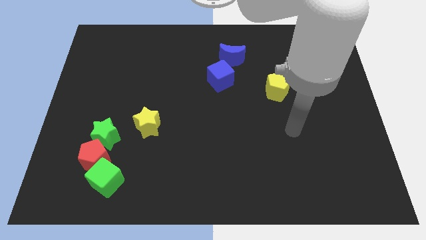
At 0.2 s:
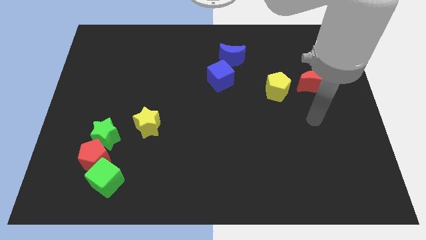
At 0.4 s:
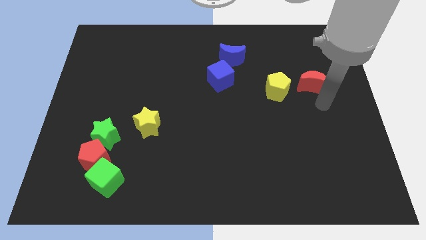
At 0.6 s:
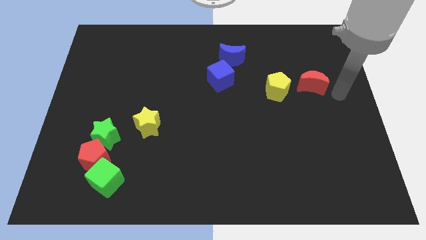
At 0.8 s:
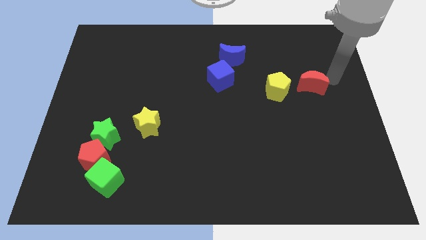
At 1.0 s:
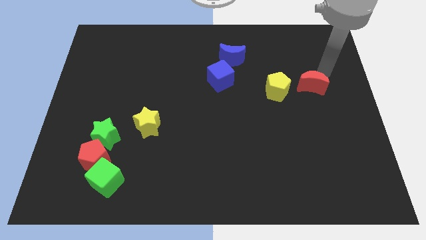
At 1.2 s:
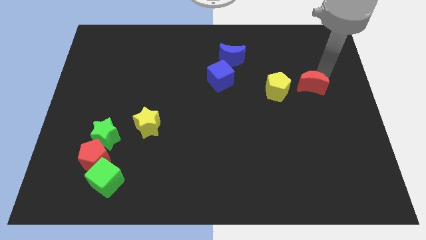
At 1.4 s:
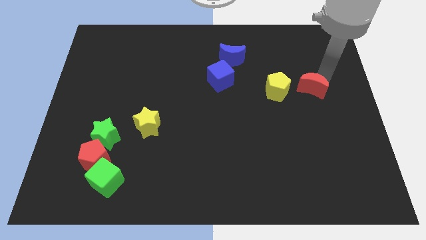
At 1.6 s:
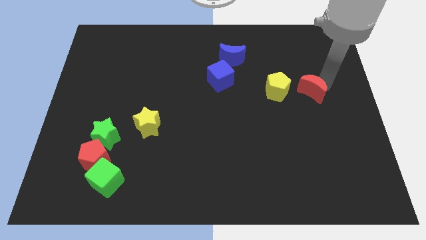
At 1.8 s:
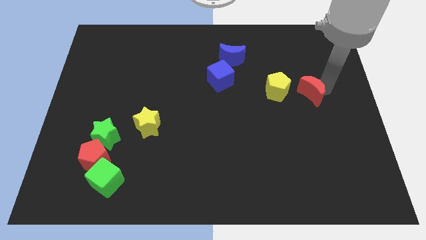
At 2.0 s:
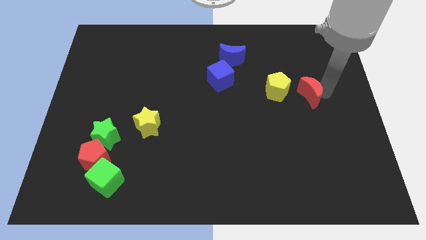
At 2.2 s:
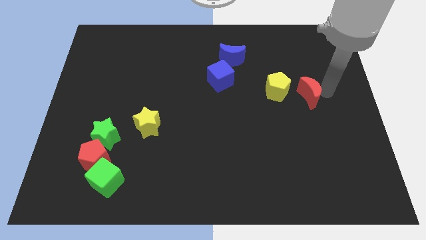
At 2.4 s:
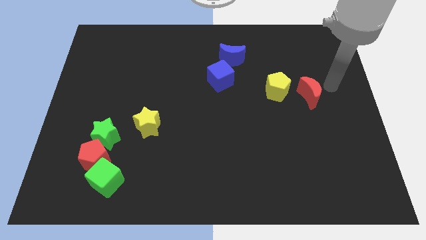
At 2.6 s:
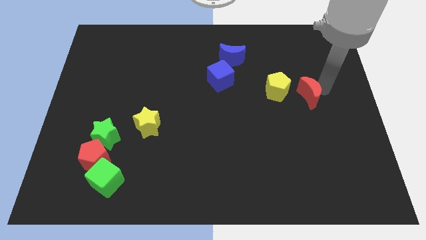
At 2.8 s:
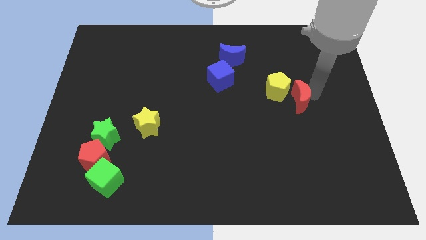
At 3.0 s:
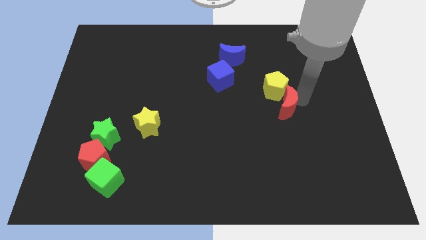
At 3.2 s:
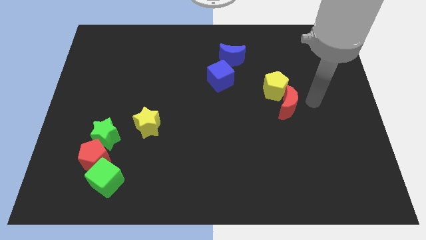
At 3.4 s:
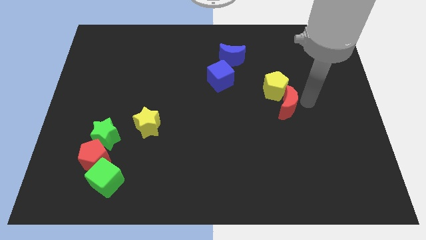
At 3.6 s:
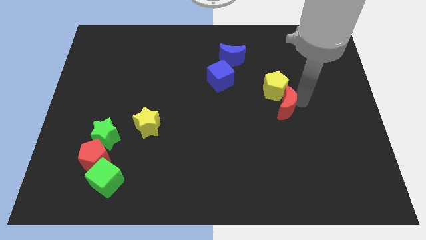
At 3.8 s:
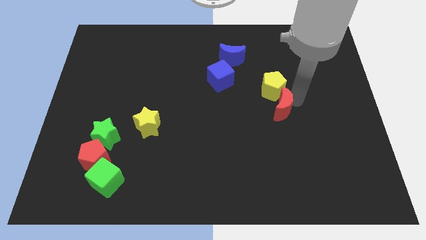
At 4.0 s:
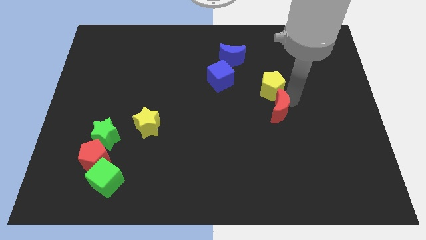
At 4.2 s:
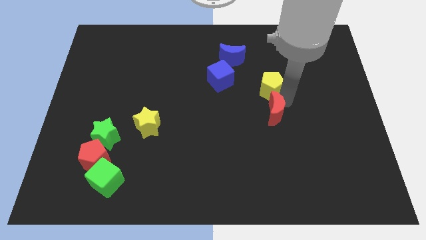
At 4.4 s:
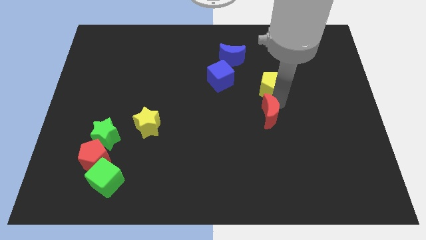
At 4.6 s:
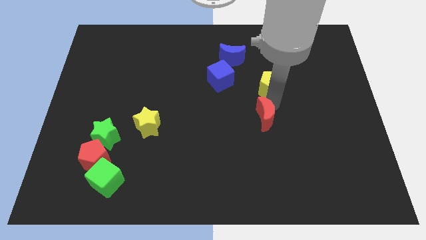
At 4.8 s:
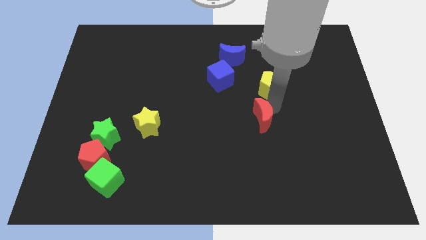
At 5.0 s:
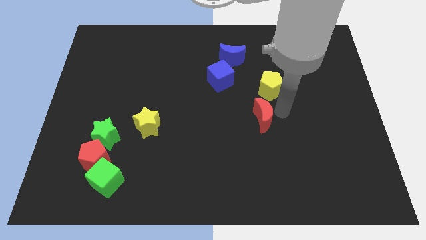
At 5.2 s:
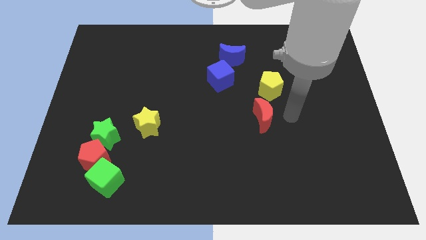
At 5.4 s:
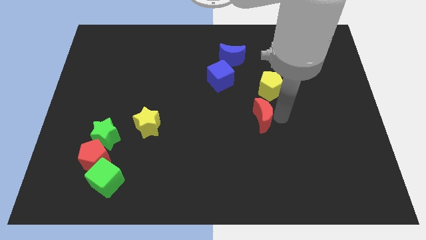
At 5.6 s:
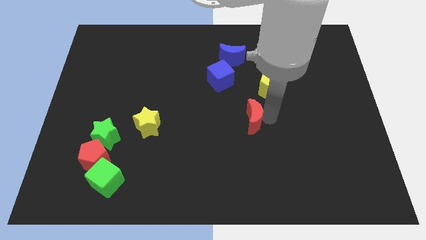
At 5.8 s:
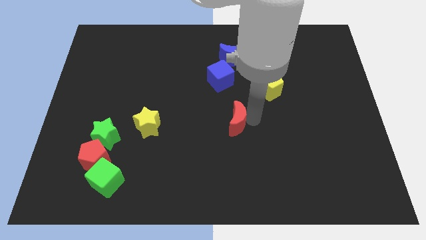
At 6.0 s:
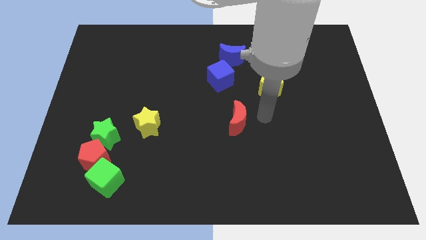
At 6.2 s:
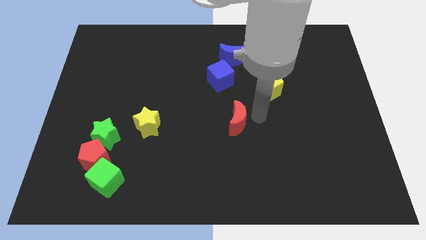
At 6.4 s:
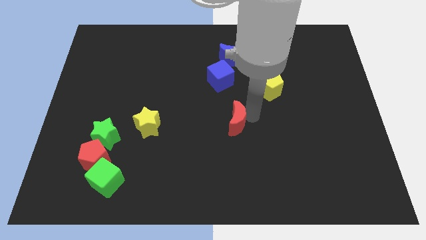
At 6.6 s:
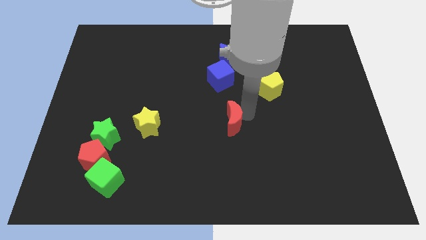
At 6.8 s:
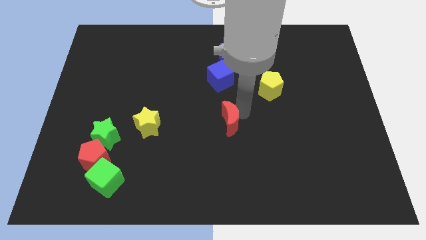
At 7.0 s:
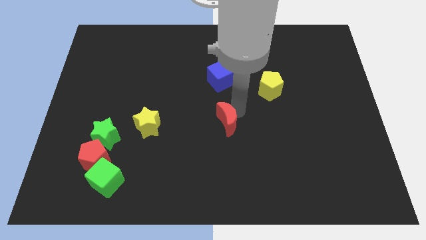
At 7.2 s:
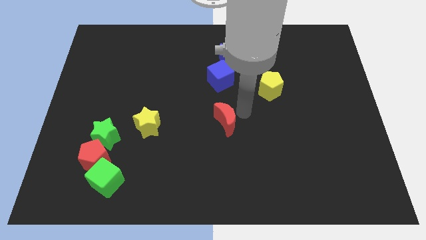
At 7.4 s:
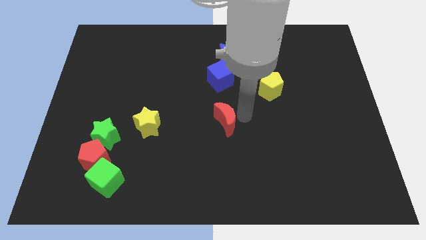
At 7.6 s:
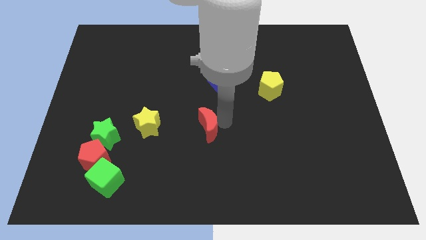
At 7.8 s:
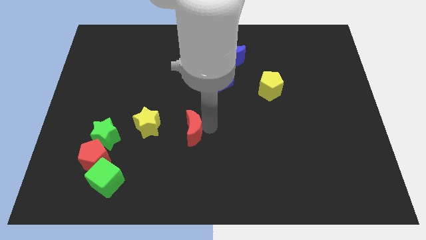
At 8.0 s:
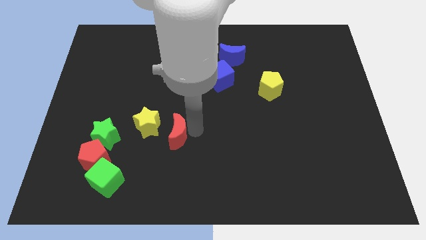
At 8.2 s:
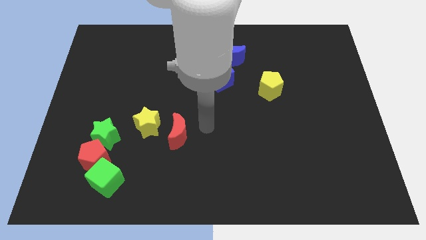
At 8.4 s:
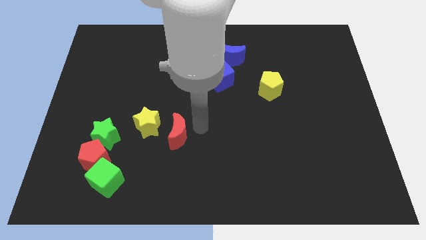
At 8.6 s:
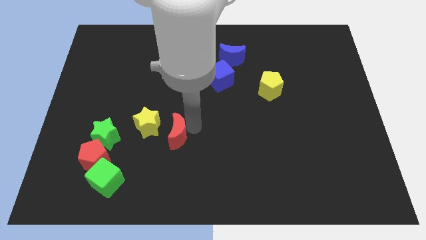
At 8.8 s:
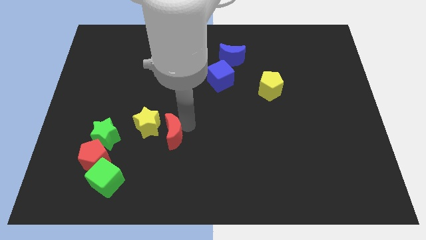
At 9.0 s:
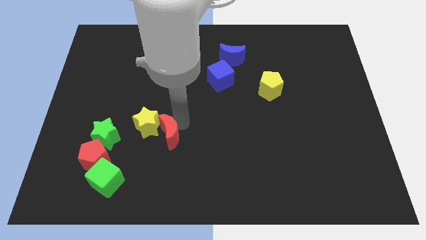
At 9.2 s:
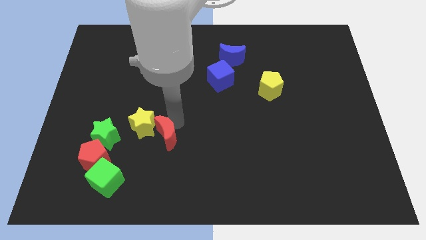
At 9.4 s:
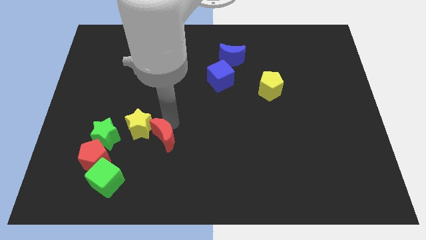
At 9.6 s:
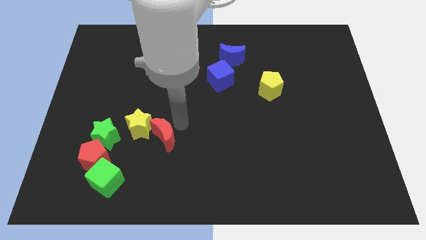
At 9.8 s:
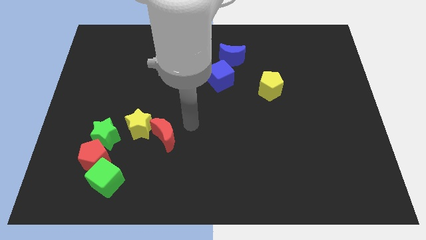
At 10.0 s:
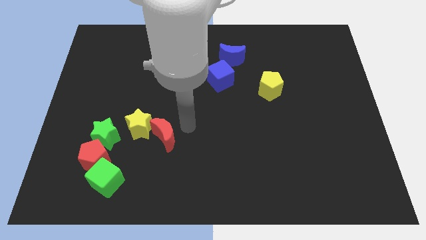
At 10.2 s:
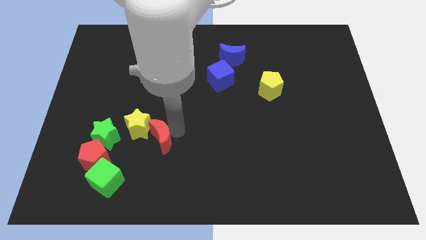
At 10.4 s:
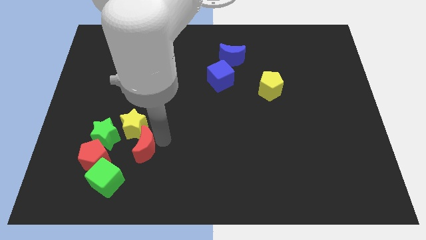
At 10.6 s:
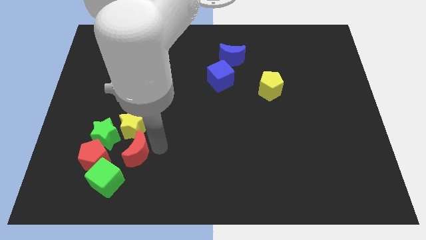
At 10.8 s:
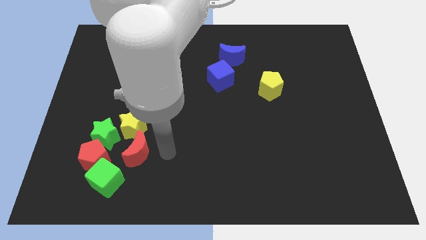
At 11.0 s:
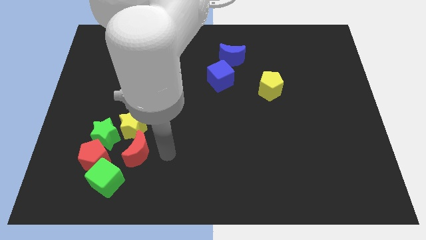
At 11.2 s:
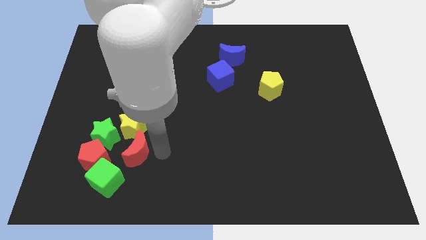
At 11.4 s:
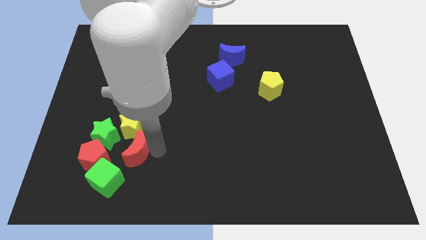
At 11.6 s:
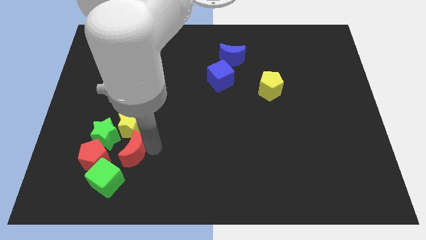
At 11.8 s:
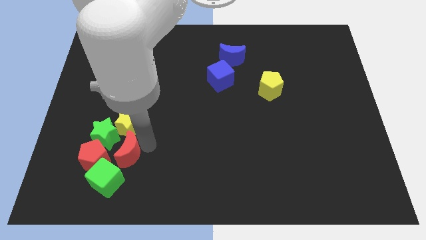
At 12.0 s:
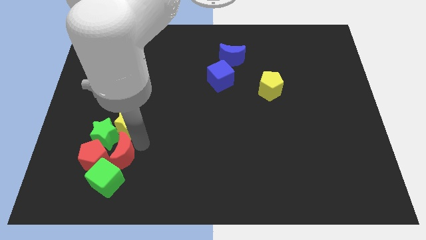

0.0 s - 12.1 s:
slide the red moon to the red pentagon

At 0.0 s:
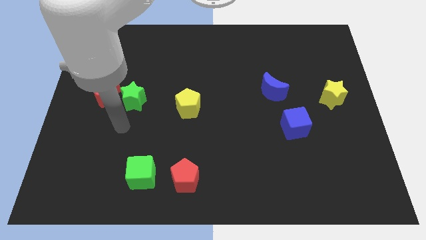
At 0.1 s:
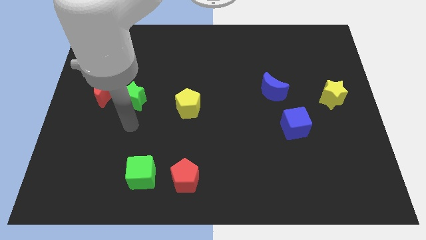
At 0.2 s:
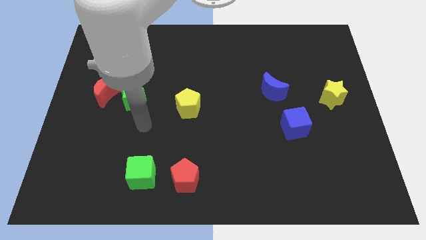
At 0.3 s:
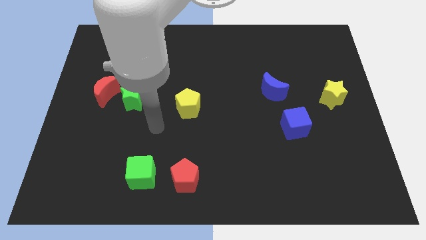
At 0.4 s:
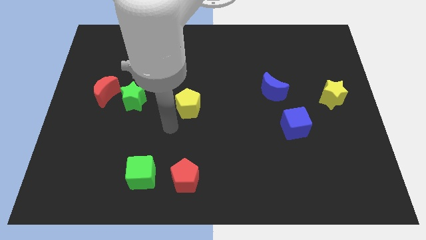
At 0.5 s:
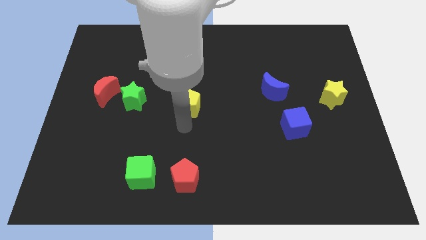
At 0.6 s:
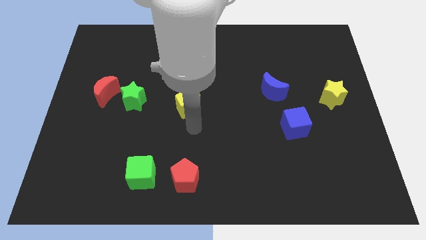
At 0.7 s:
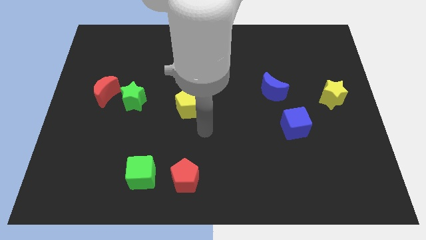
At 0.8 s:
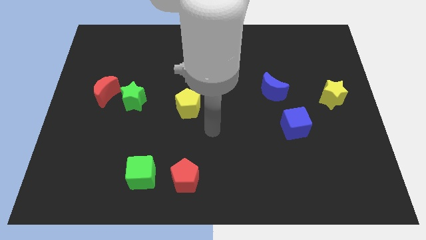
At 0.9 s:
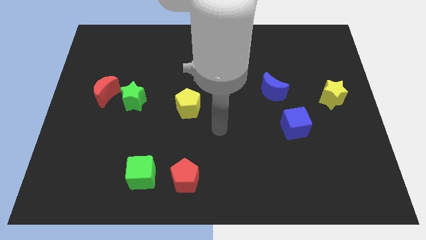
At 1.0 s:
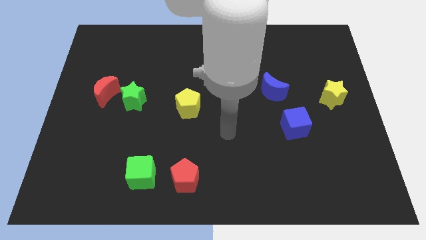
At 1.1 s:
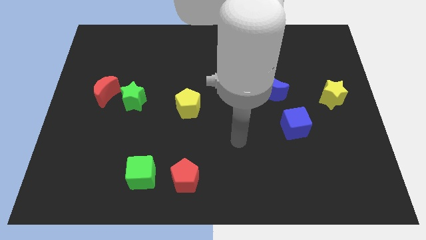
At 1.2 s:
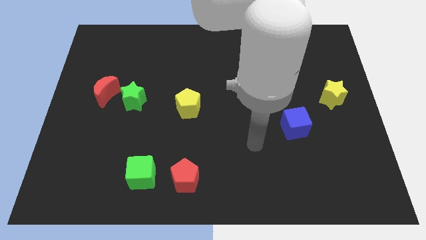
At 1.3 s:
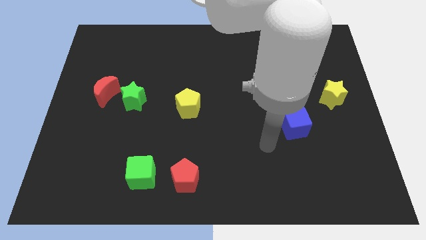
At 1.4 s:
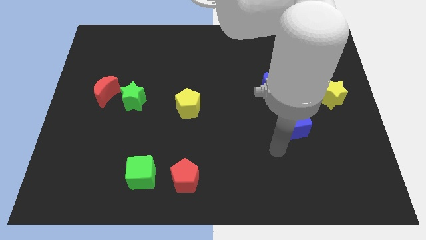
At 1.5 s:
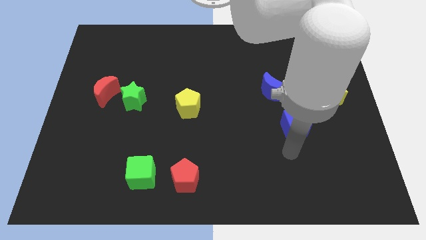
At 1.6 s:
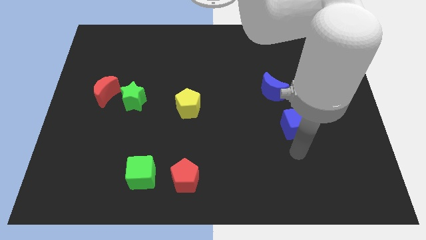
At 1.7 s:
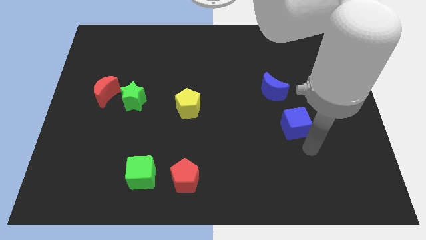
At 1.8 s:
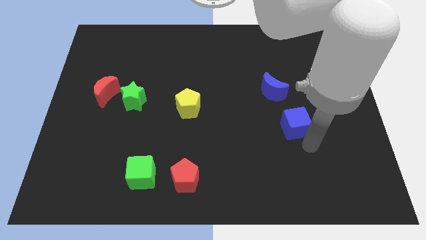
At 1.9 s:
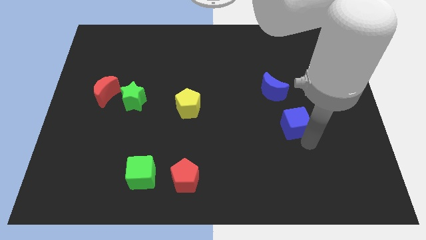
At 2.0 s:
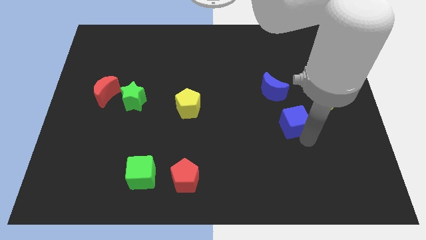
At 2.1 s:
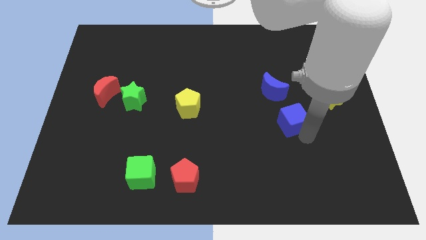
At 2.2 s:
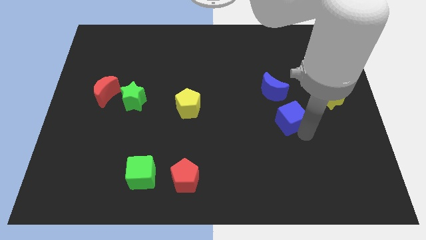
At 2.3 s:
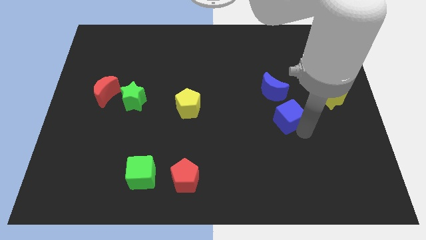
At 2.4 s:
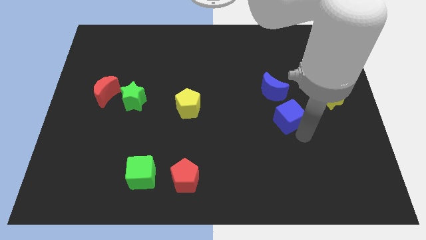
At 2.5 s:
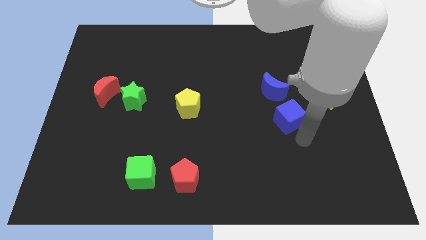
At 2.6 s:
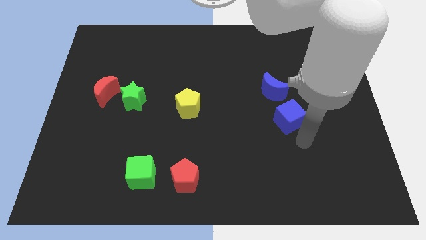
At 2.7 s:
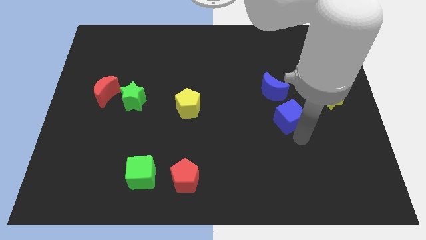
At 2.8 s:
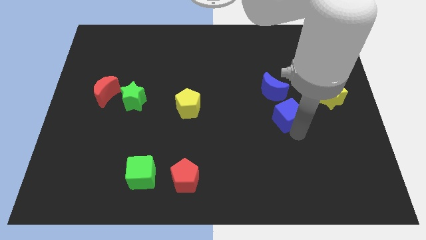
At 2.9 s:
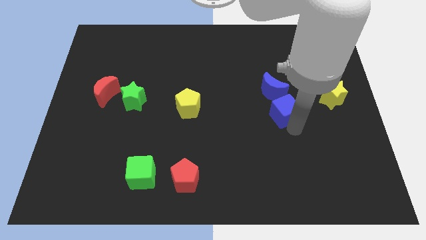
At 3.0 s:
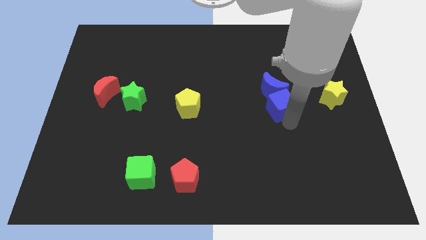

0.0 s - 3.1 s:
move the blue cube next to the blue moon
